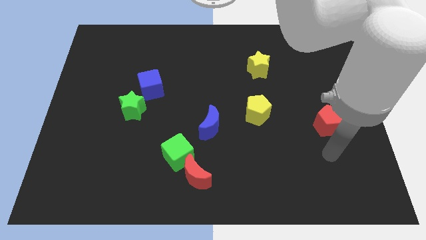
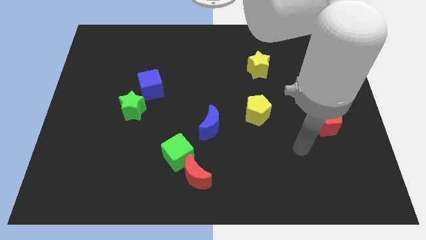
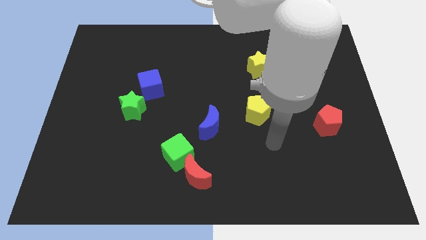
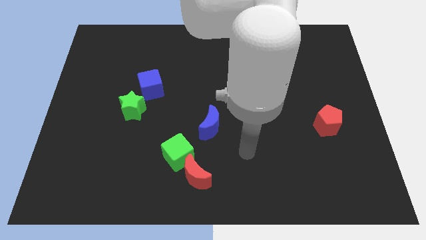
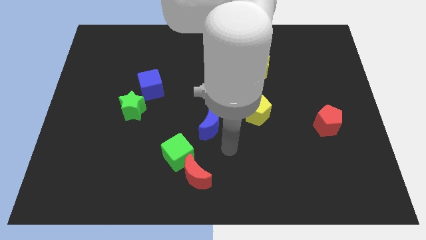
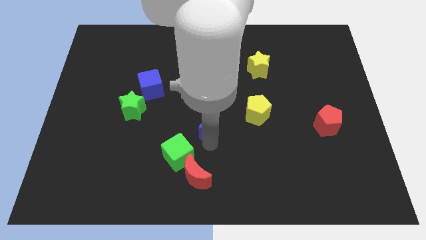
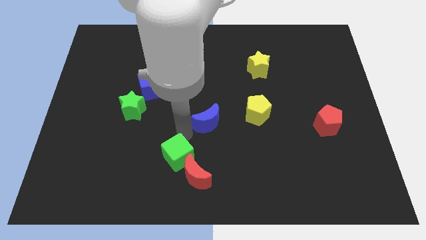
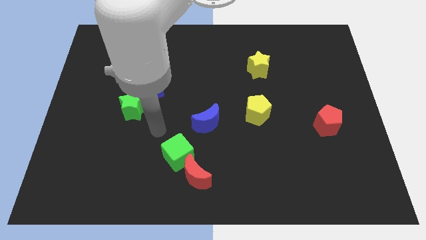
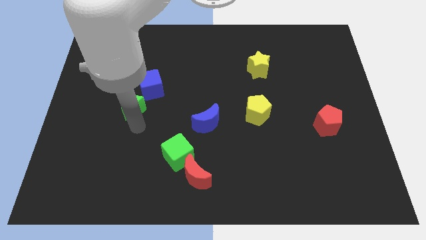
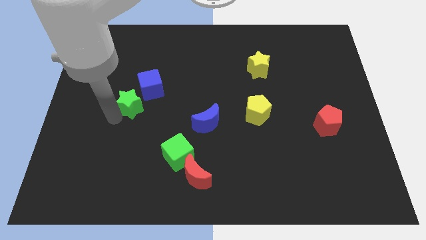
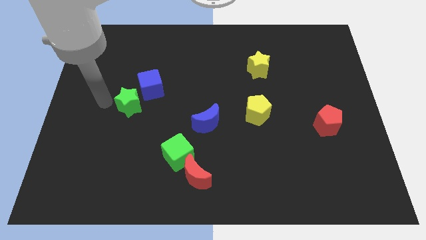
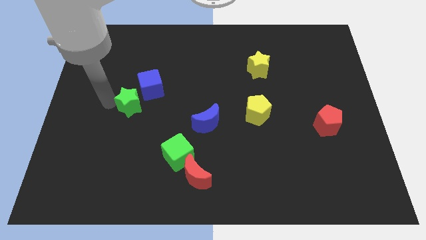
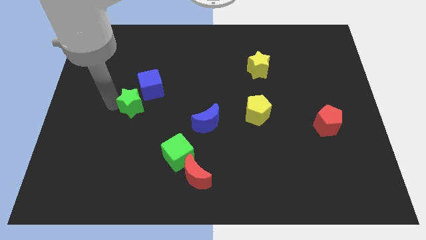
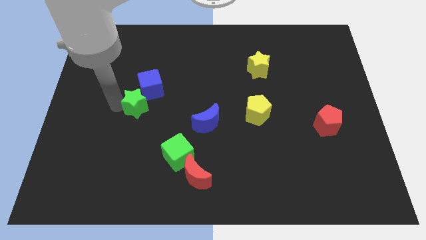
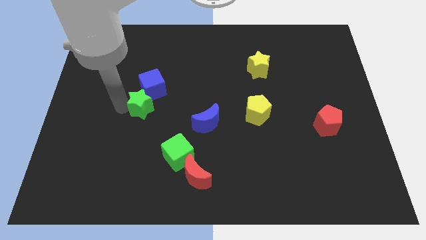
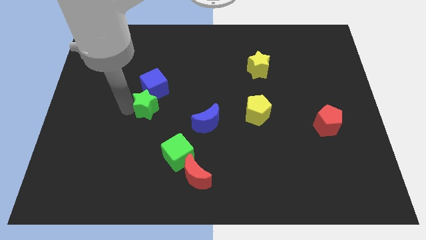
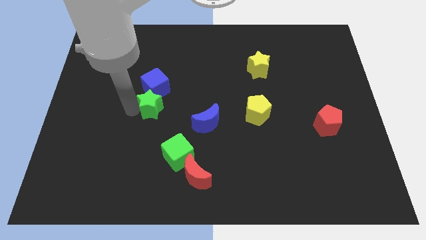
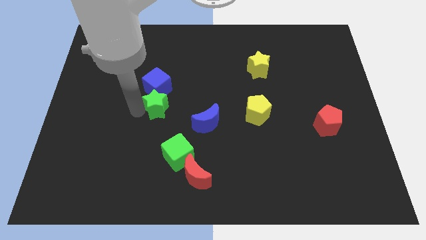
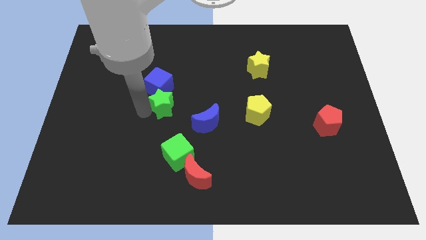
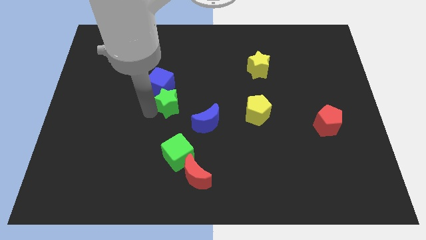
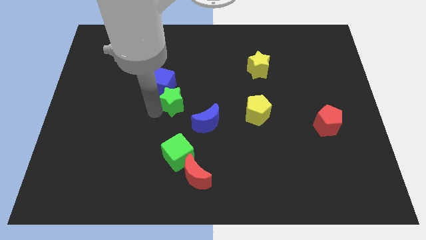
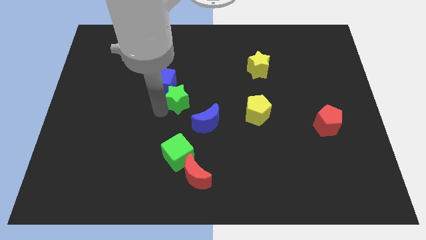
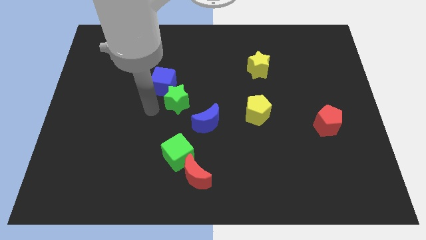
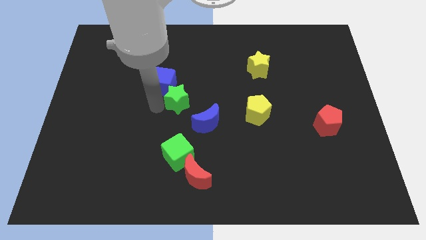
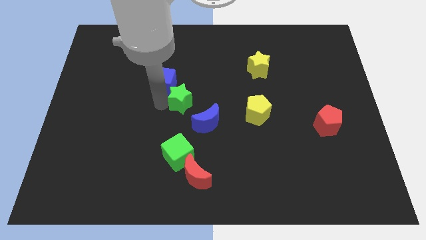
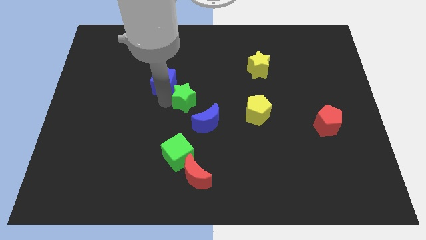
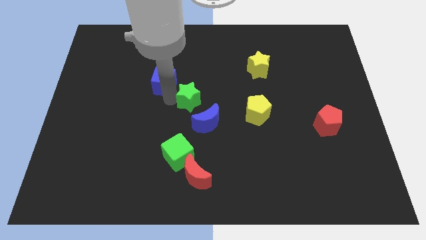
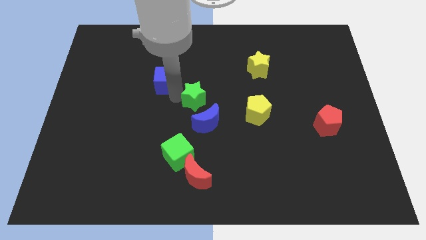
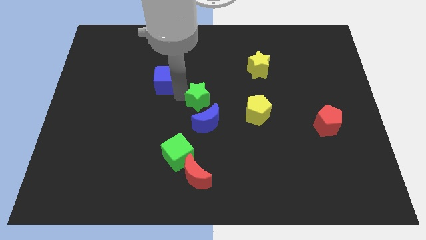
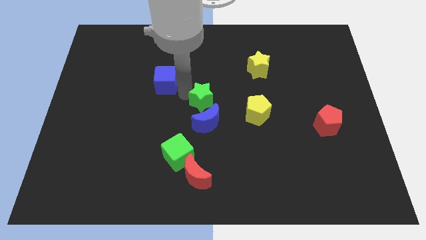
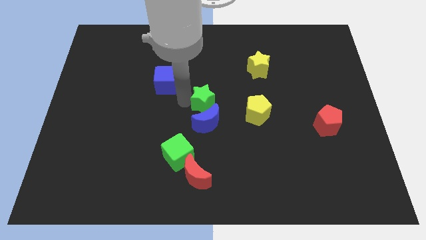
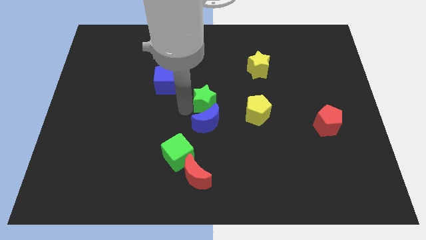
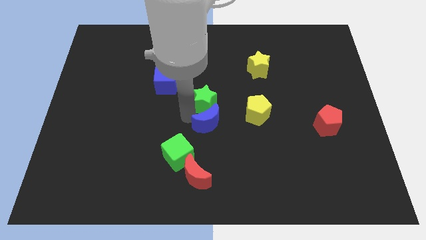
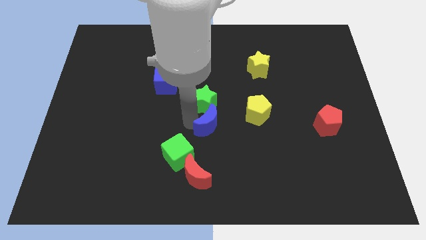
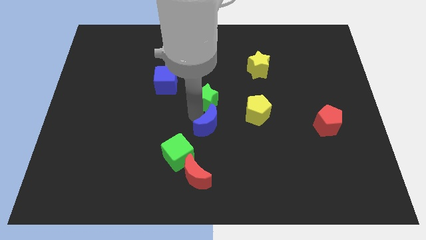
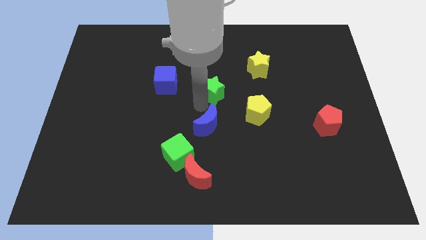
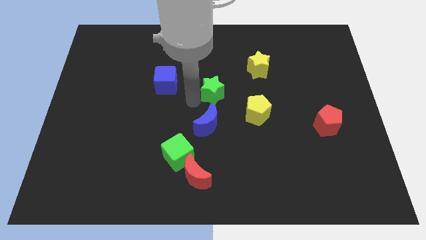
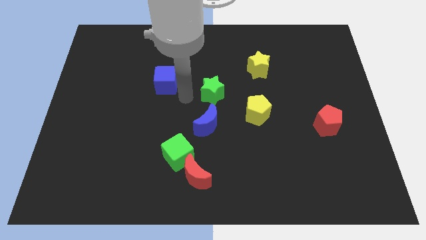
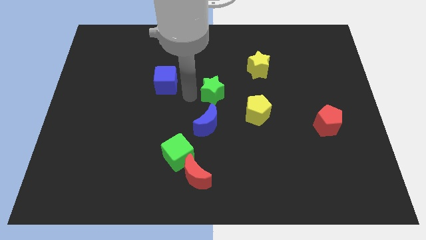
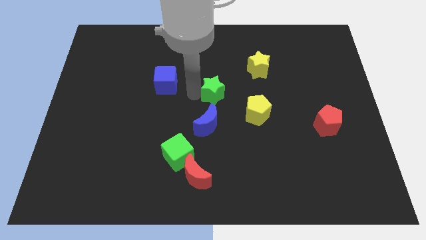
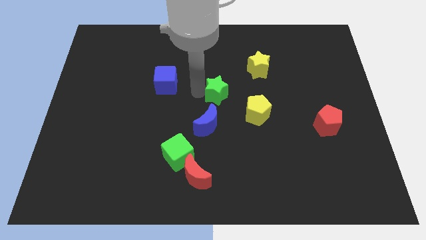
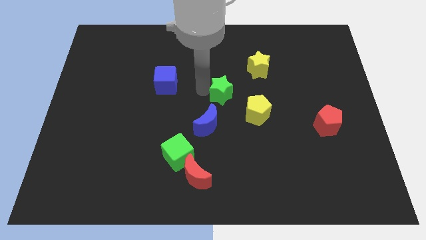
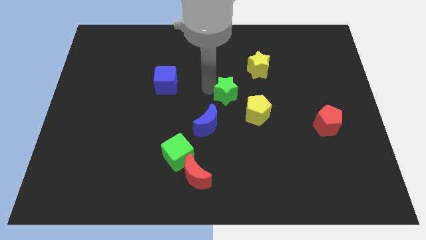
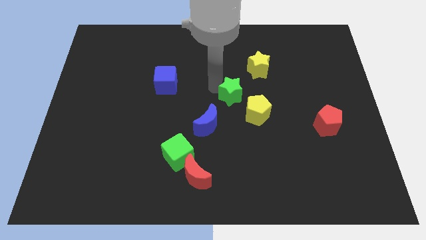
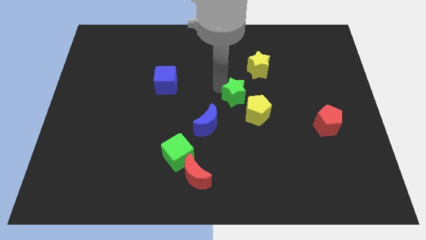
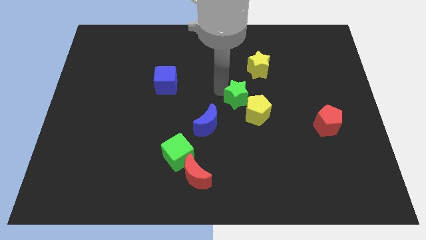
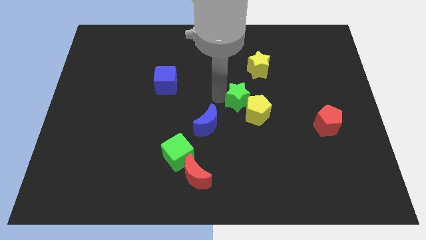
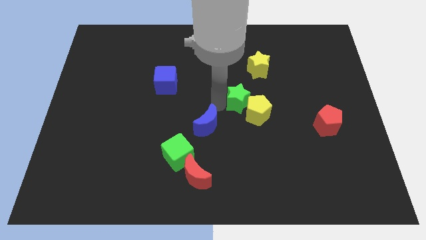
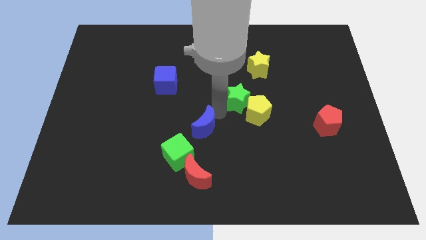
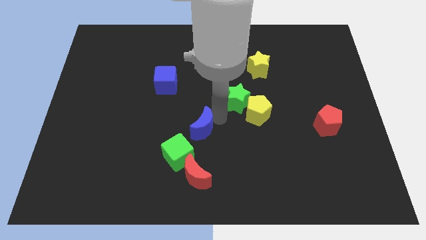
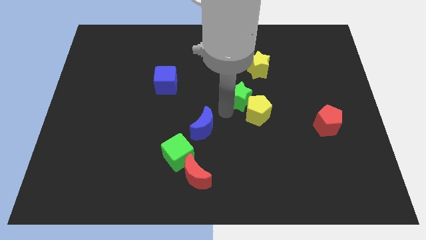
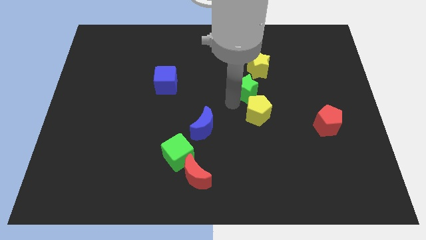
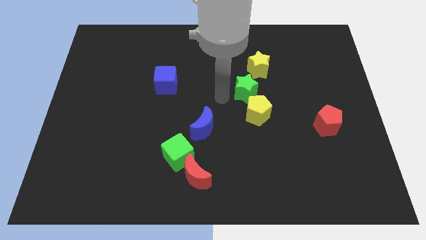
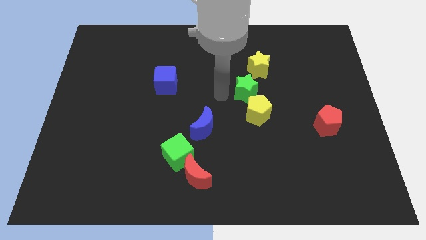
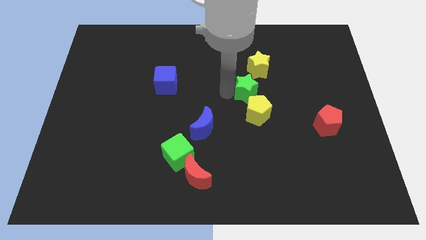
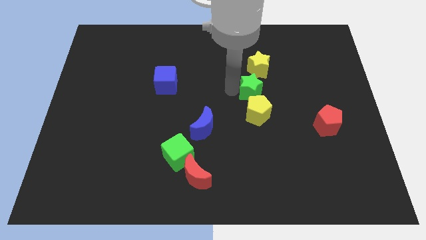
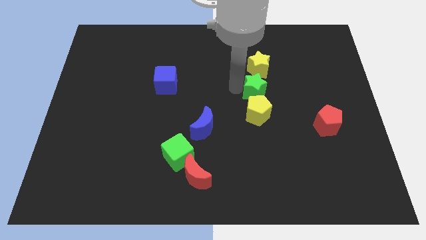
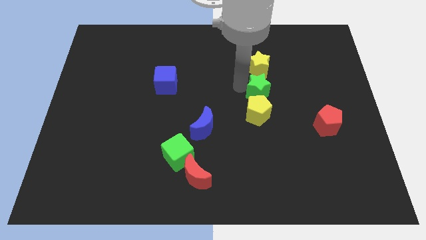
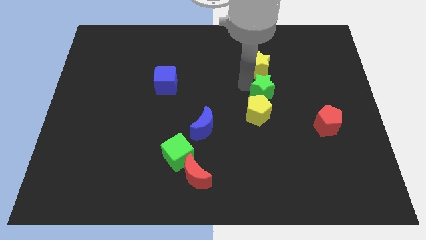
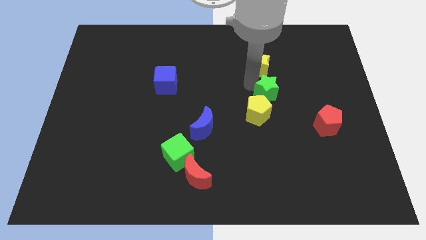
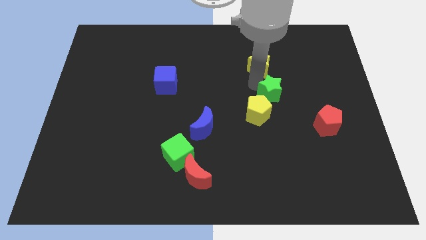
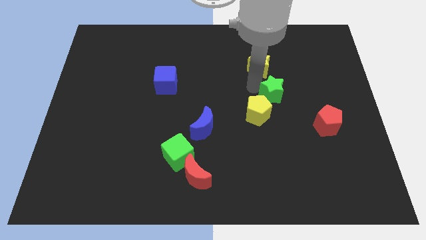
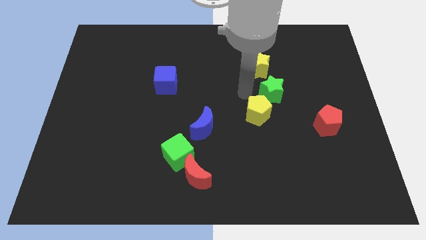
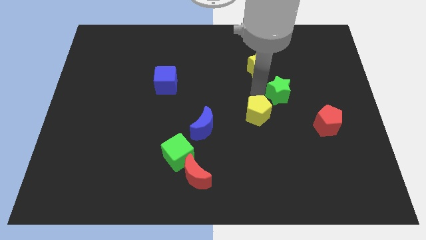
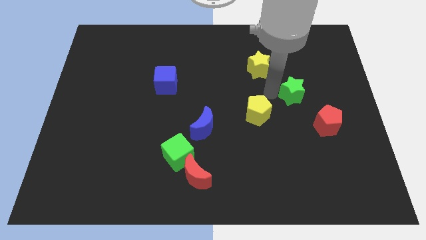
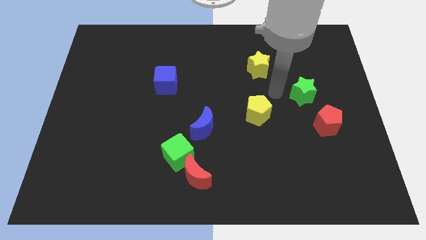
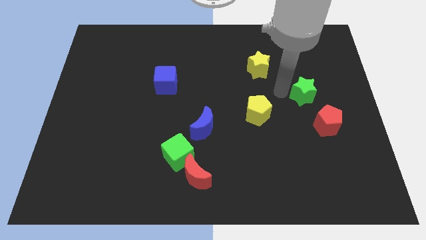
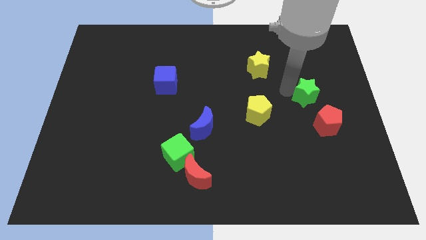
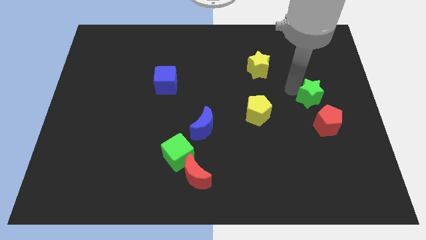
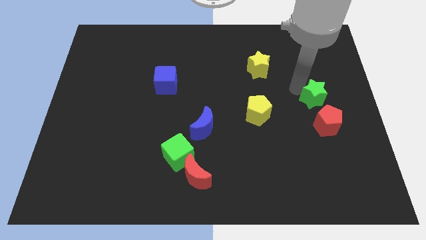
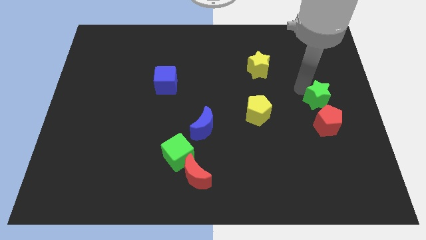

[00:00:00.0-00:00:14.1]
move the green star to the center right
